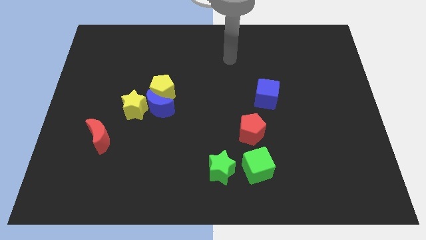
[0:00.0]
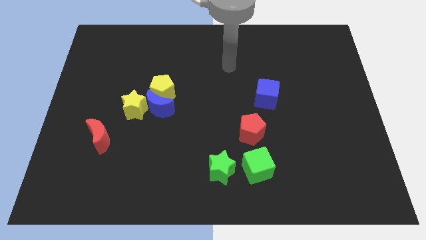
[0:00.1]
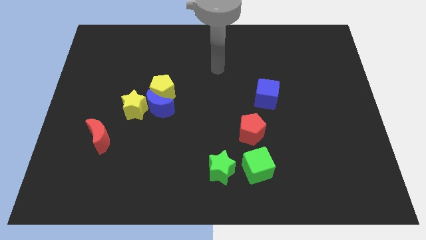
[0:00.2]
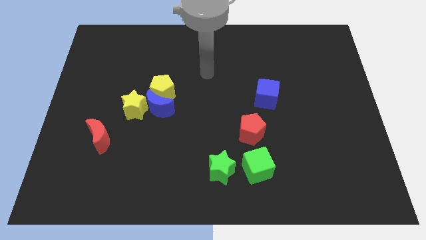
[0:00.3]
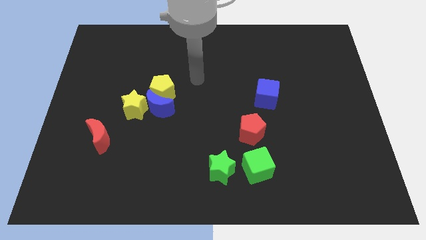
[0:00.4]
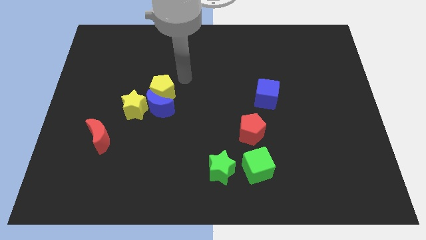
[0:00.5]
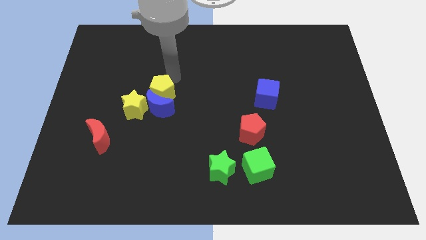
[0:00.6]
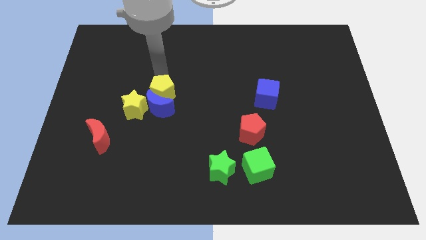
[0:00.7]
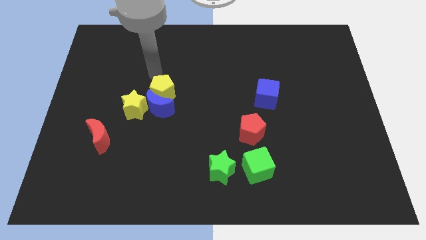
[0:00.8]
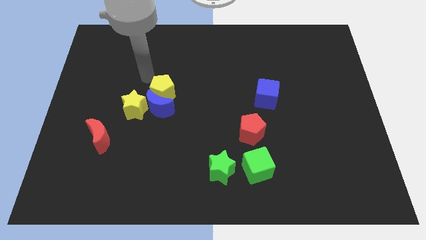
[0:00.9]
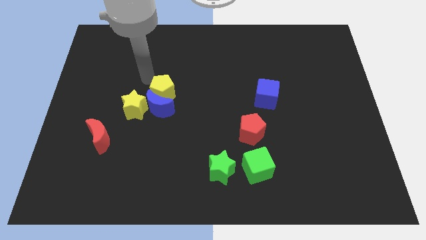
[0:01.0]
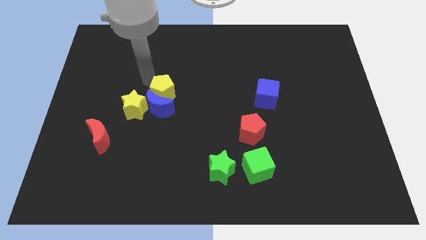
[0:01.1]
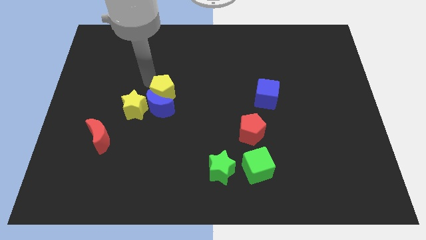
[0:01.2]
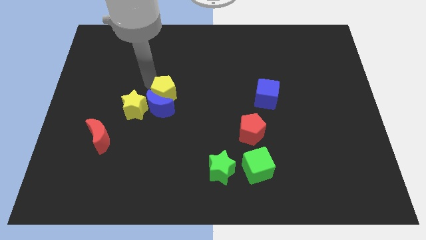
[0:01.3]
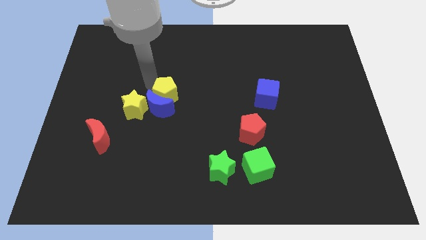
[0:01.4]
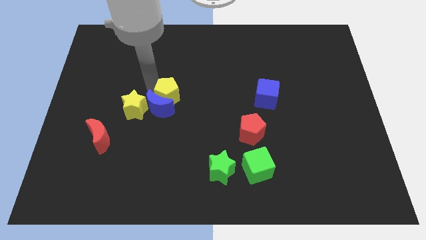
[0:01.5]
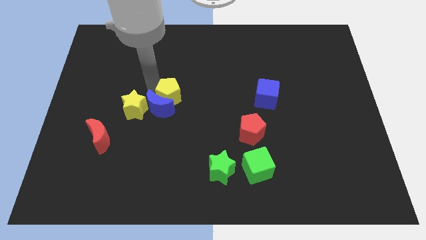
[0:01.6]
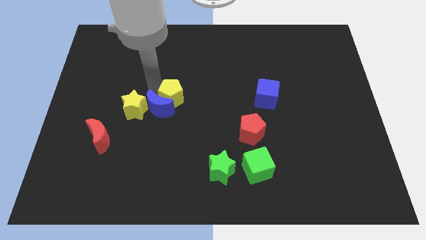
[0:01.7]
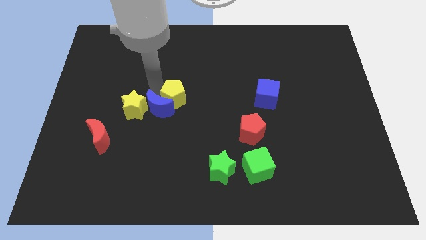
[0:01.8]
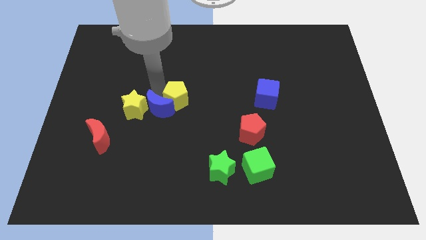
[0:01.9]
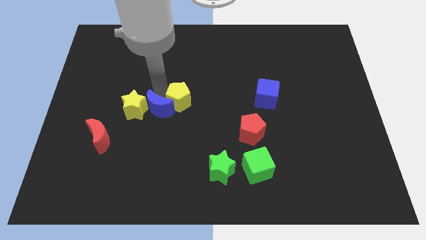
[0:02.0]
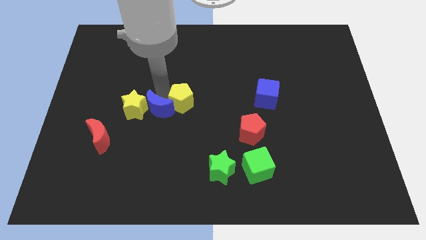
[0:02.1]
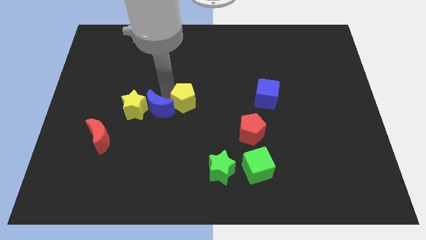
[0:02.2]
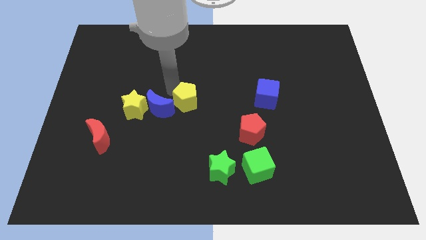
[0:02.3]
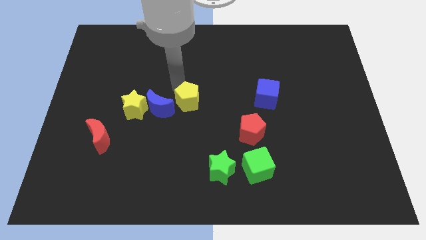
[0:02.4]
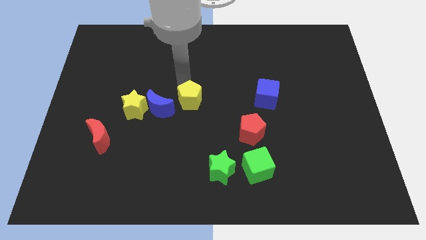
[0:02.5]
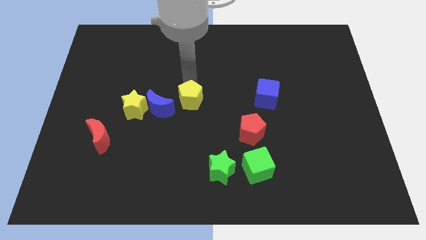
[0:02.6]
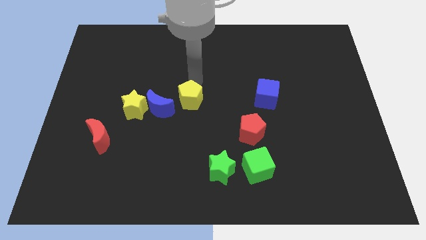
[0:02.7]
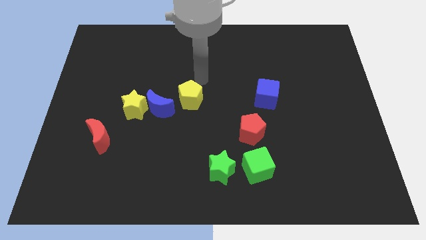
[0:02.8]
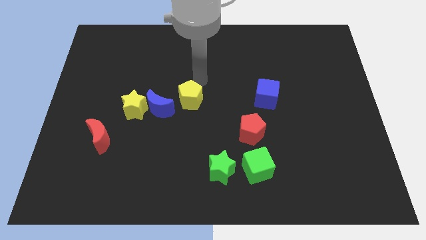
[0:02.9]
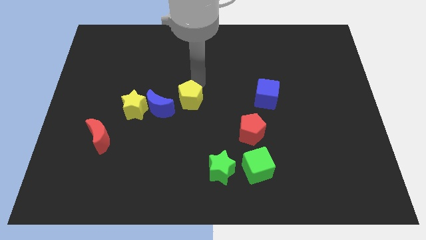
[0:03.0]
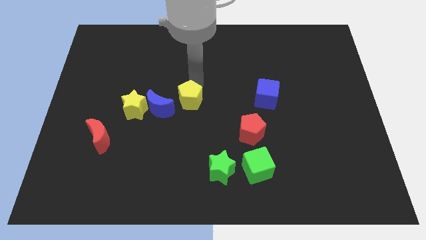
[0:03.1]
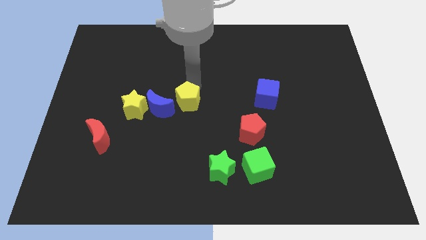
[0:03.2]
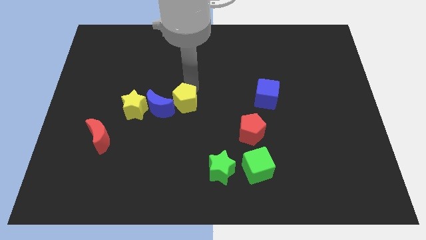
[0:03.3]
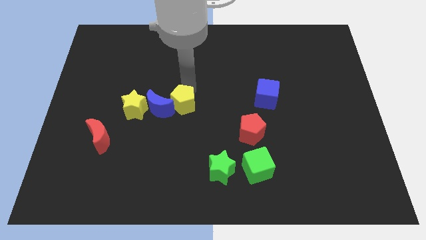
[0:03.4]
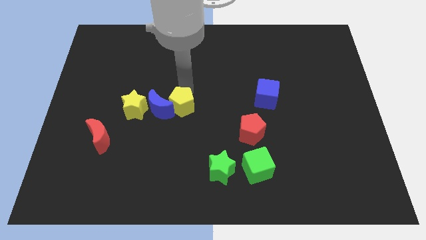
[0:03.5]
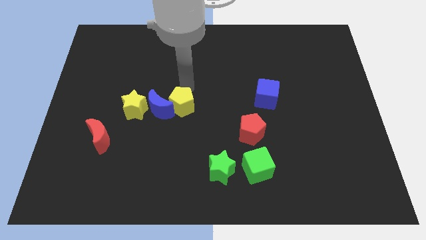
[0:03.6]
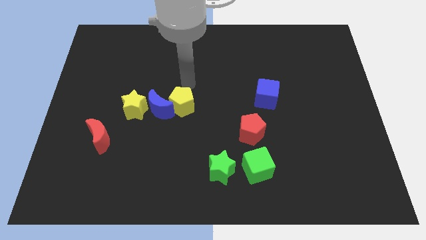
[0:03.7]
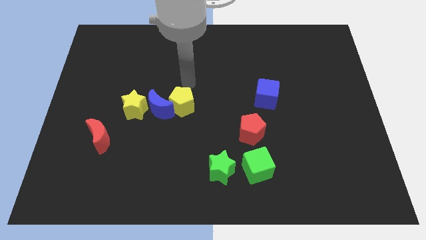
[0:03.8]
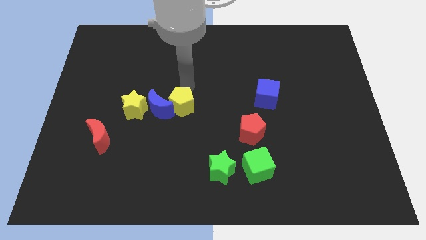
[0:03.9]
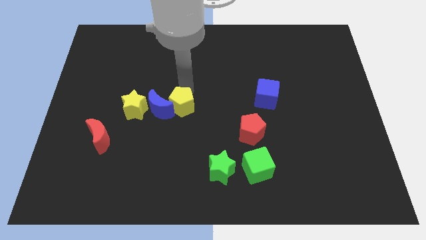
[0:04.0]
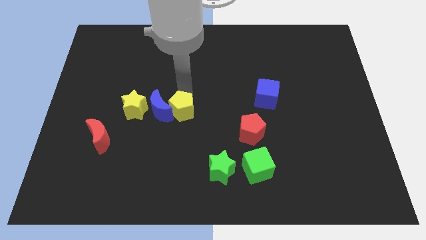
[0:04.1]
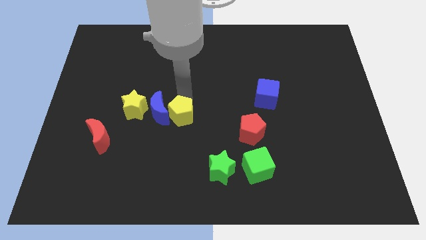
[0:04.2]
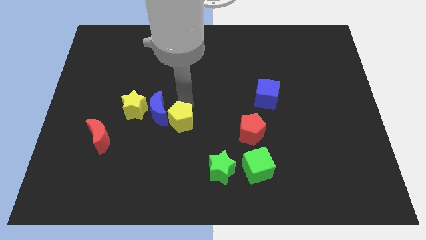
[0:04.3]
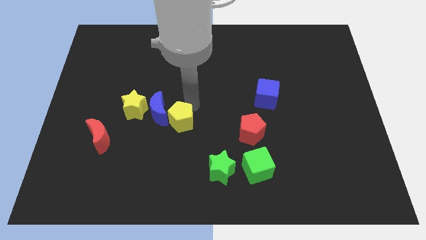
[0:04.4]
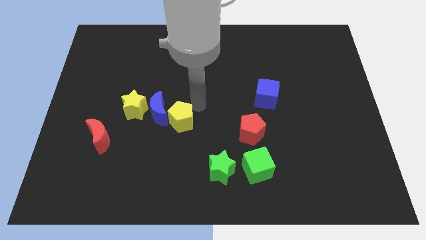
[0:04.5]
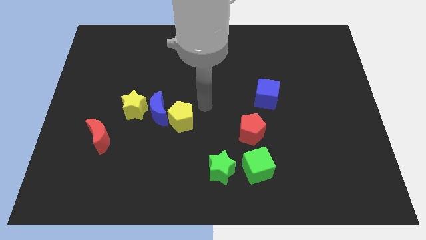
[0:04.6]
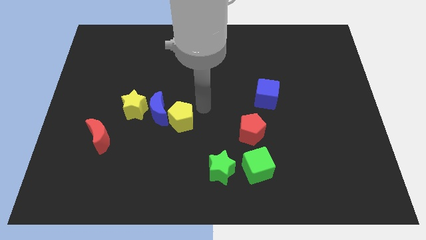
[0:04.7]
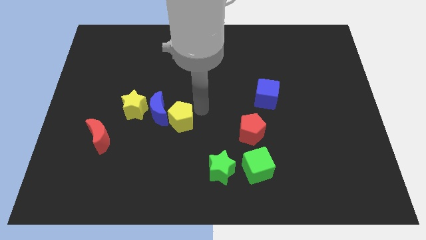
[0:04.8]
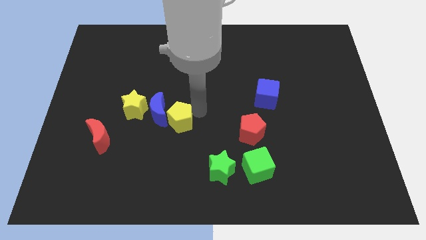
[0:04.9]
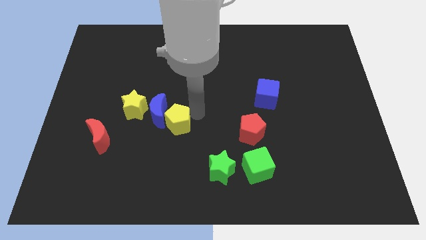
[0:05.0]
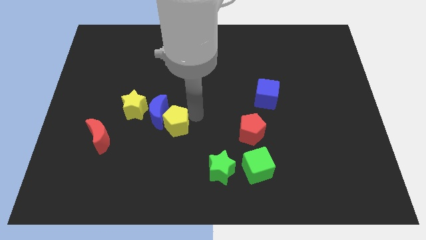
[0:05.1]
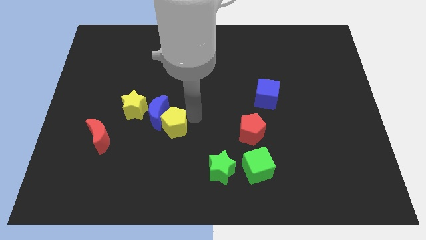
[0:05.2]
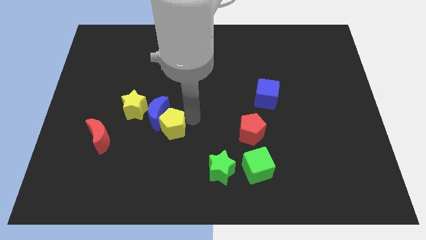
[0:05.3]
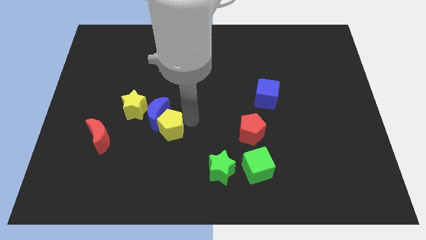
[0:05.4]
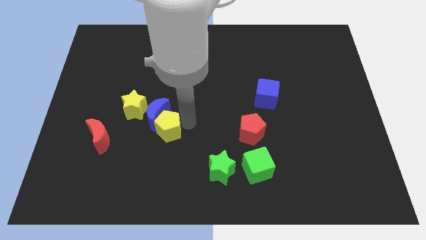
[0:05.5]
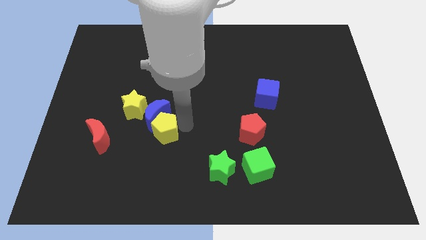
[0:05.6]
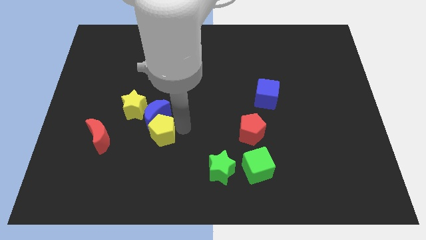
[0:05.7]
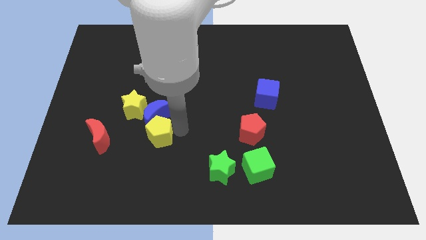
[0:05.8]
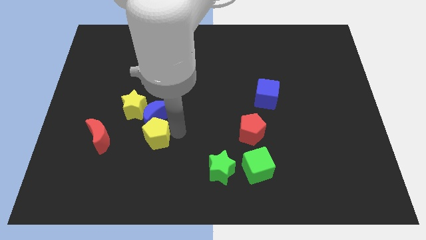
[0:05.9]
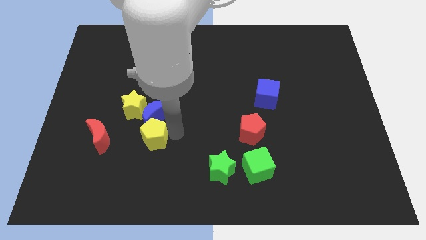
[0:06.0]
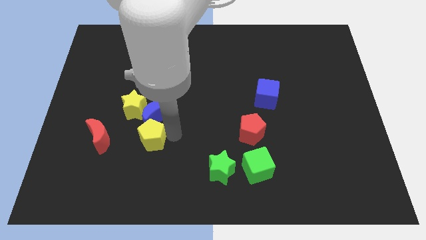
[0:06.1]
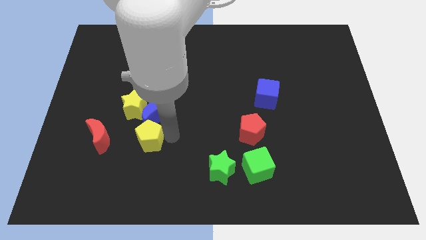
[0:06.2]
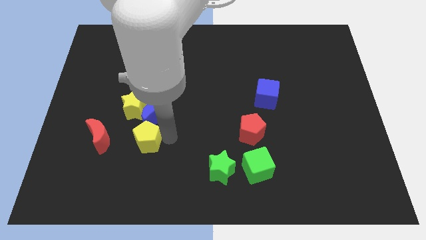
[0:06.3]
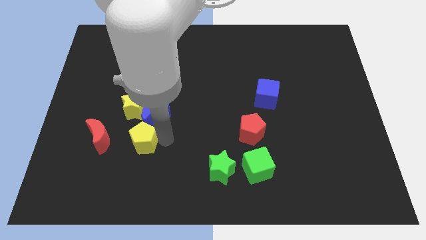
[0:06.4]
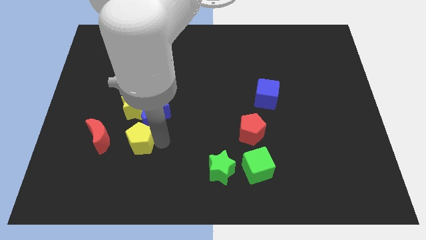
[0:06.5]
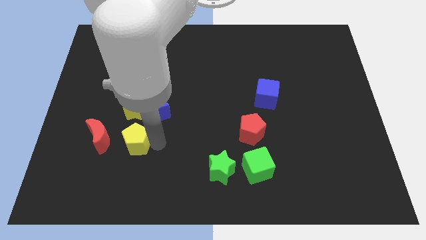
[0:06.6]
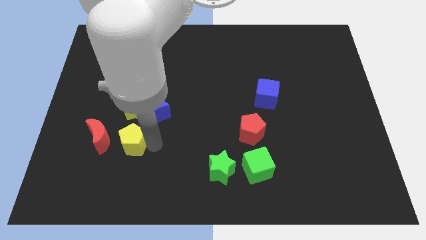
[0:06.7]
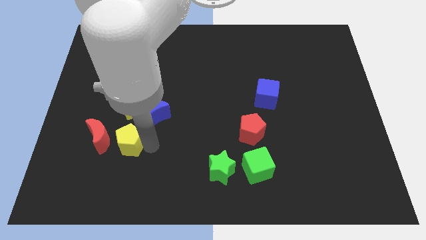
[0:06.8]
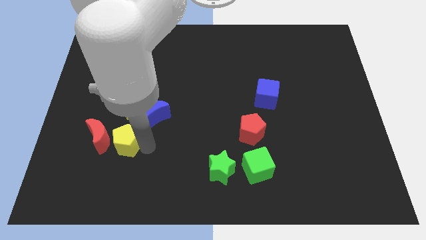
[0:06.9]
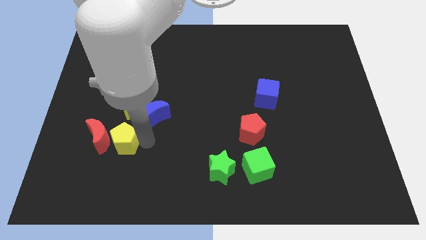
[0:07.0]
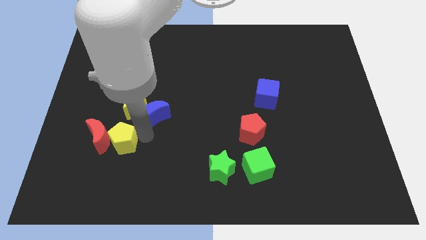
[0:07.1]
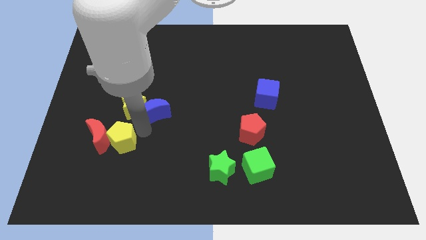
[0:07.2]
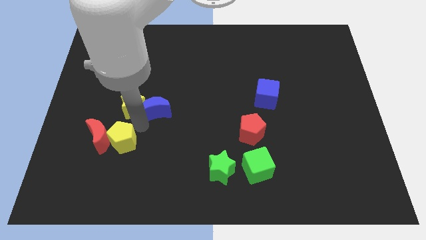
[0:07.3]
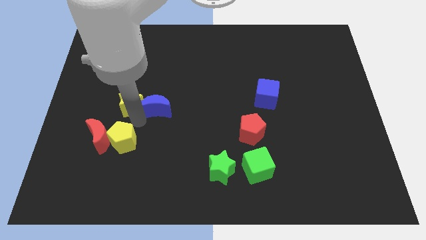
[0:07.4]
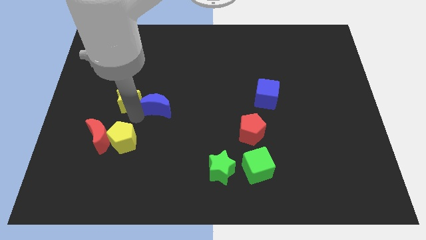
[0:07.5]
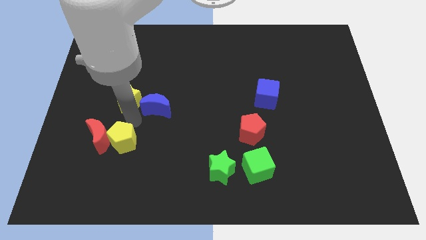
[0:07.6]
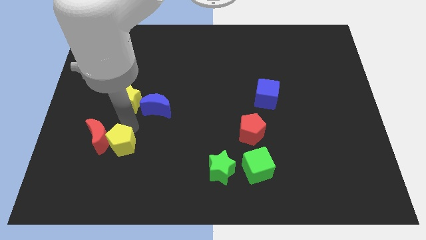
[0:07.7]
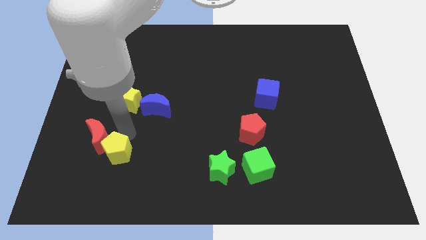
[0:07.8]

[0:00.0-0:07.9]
move the yellow pentagon to the bottom side of the red moon
